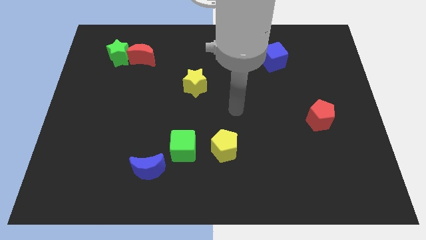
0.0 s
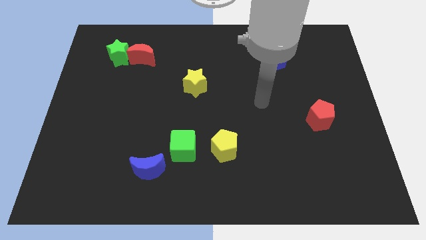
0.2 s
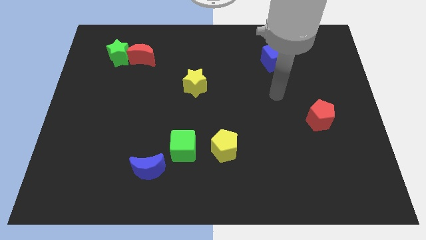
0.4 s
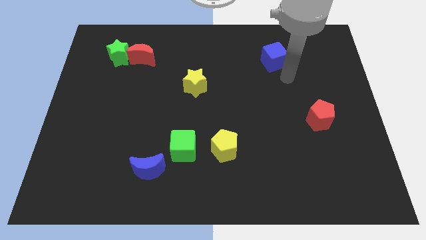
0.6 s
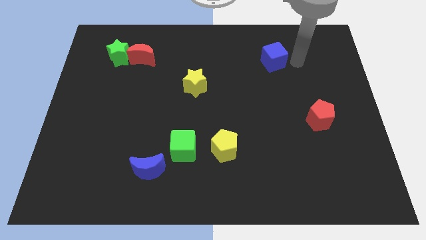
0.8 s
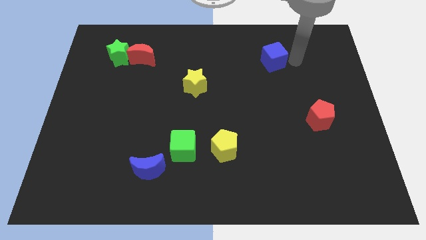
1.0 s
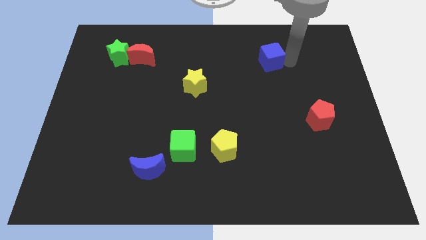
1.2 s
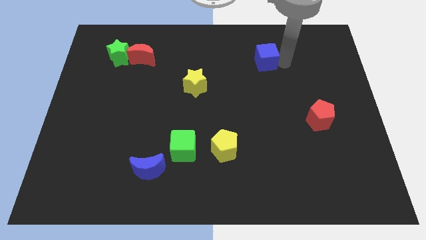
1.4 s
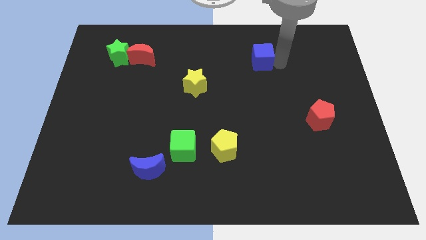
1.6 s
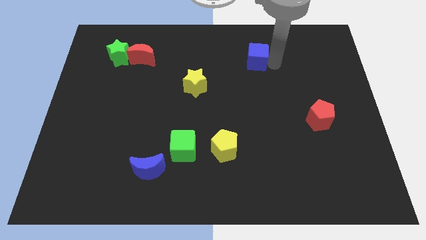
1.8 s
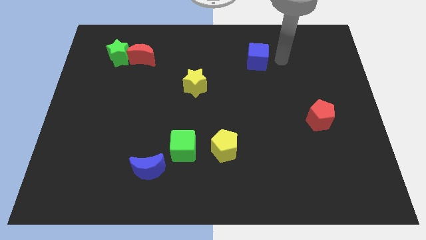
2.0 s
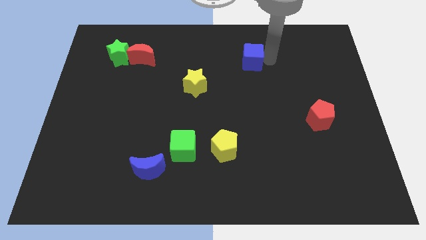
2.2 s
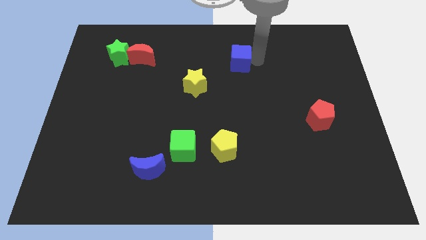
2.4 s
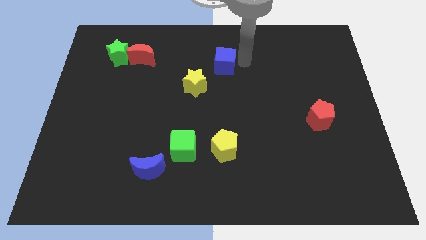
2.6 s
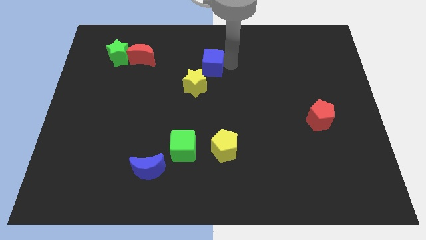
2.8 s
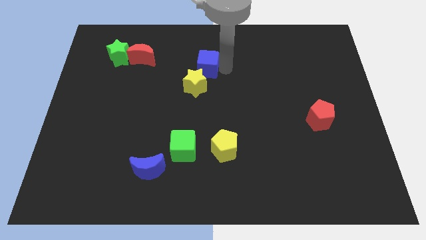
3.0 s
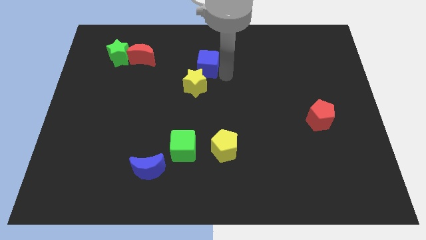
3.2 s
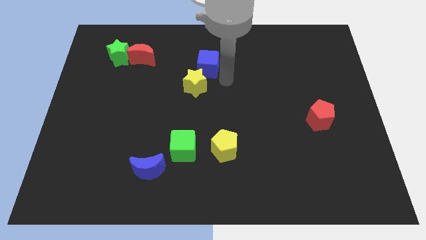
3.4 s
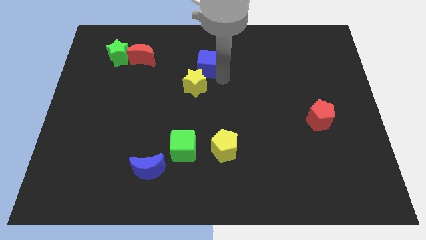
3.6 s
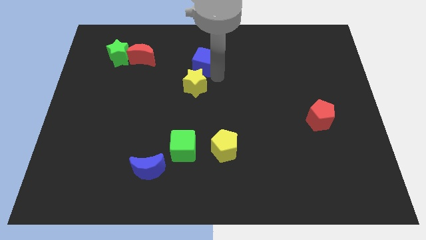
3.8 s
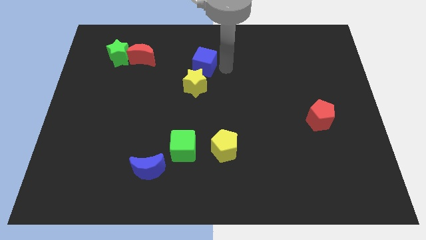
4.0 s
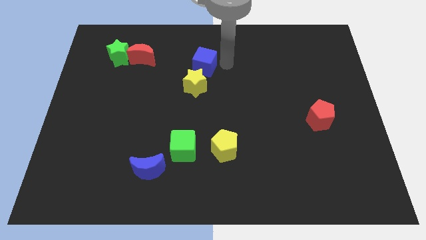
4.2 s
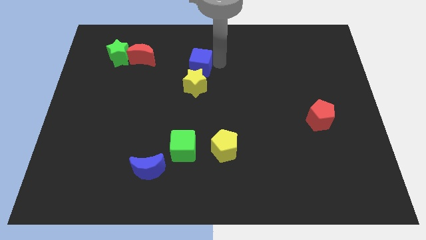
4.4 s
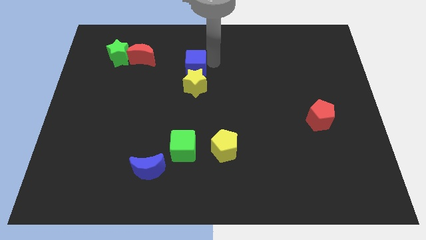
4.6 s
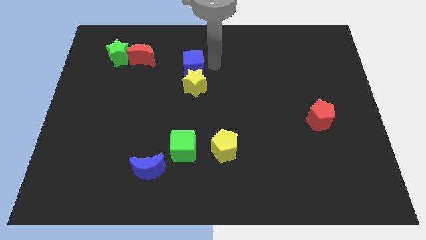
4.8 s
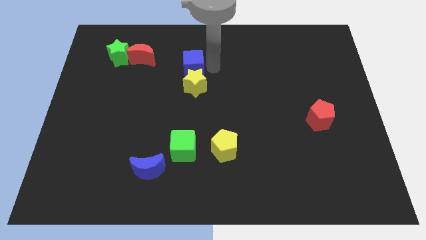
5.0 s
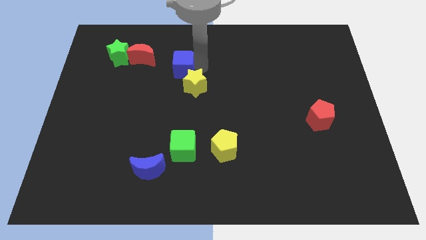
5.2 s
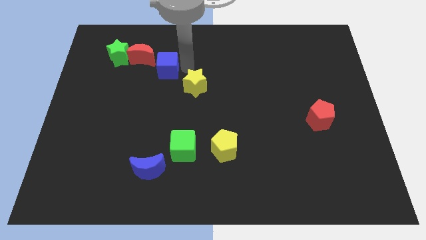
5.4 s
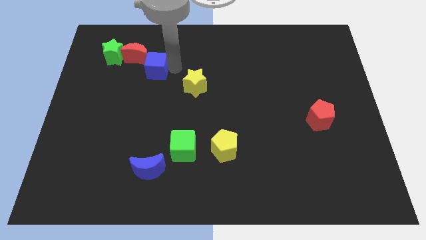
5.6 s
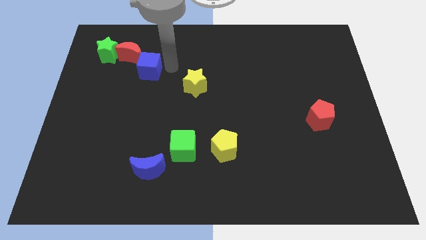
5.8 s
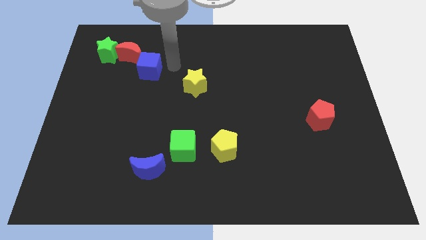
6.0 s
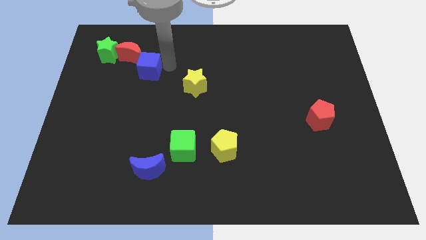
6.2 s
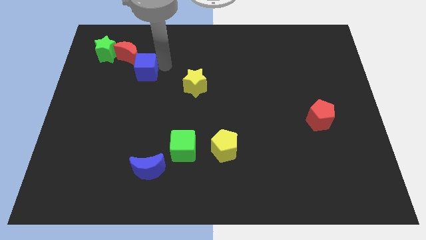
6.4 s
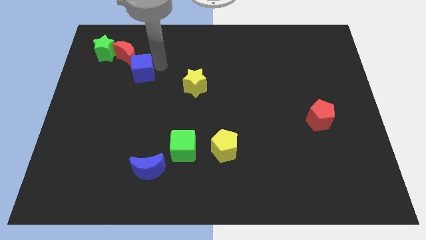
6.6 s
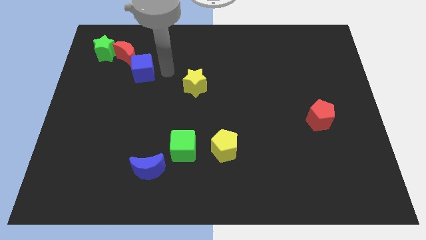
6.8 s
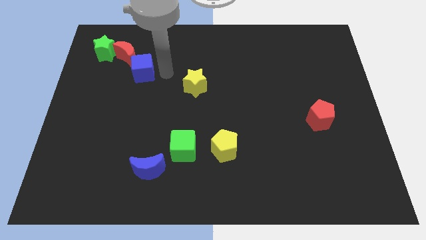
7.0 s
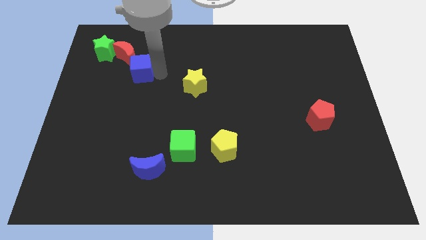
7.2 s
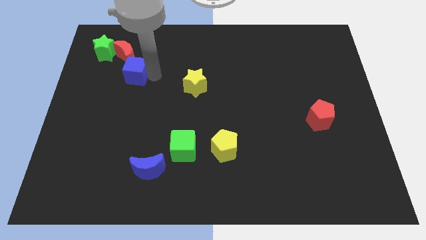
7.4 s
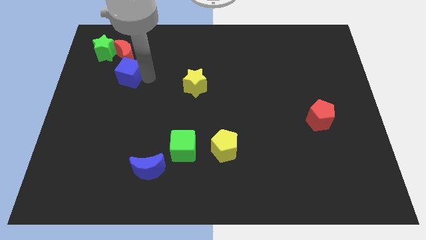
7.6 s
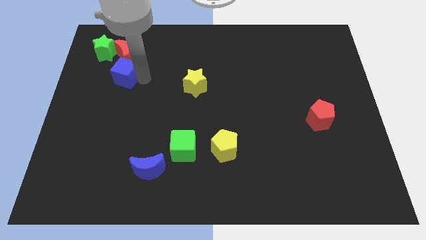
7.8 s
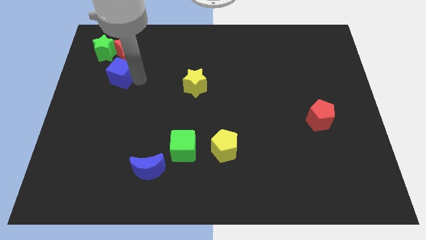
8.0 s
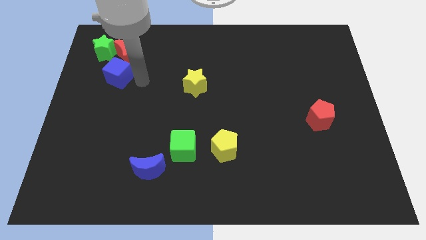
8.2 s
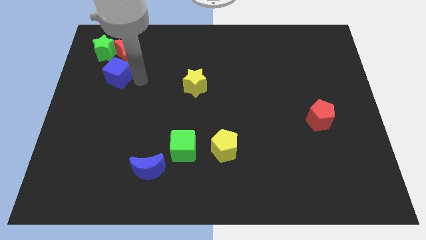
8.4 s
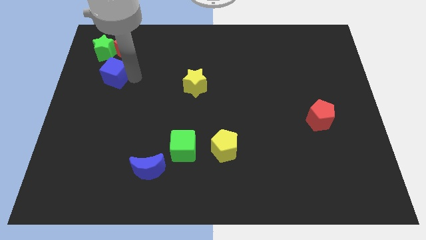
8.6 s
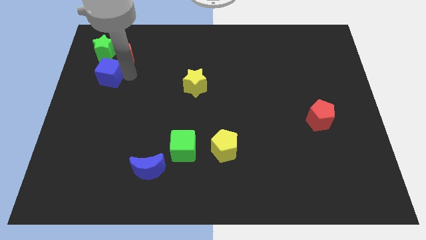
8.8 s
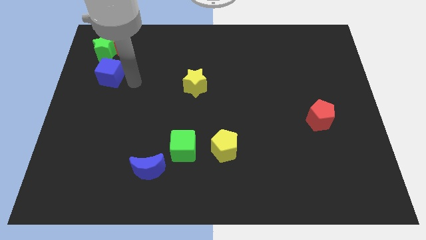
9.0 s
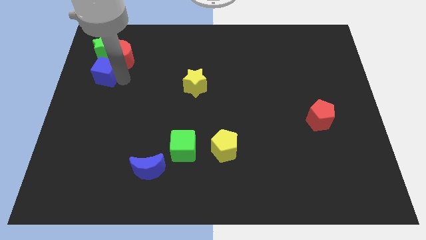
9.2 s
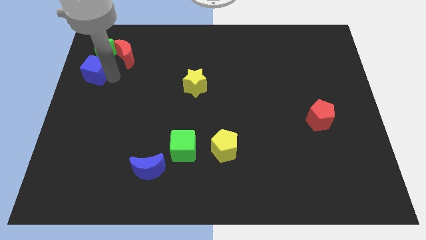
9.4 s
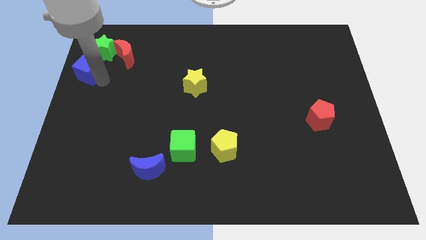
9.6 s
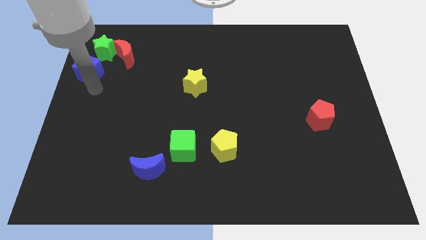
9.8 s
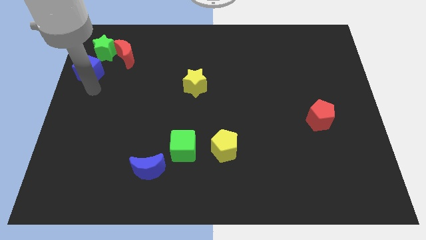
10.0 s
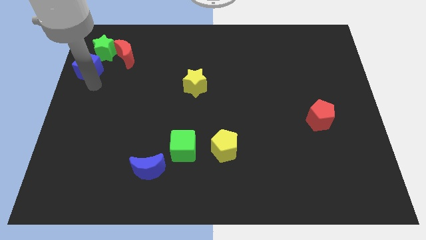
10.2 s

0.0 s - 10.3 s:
push the blue cube left of the red moon

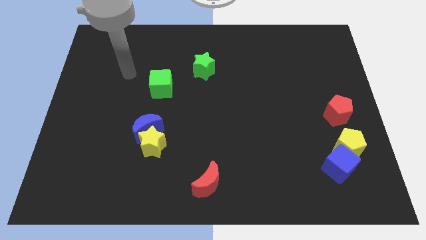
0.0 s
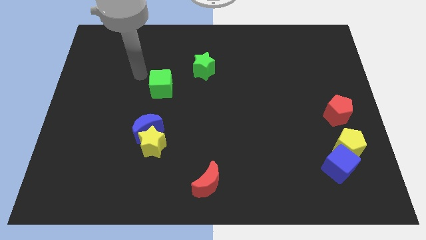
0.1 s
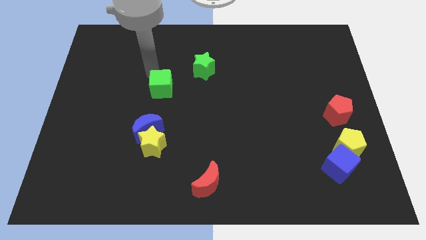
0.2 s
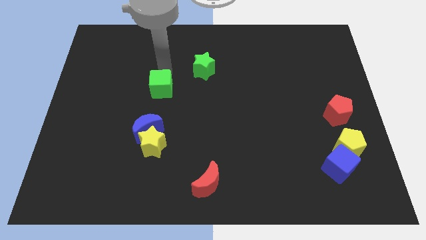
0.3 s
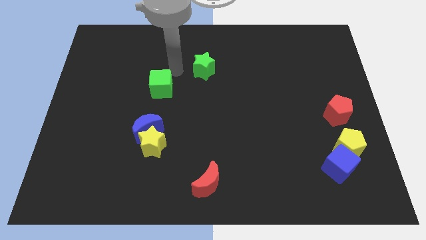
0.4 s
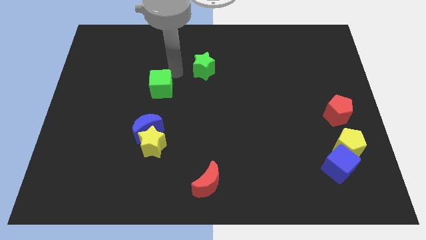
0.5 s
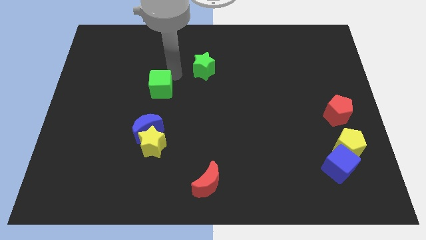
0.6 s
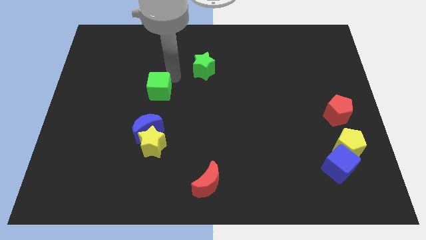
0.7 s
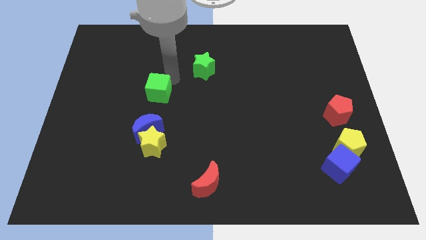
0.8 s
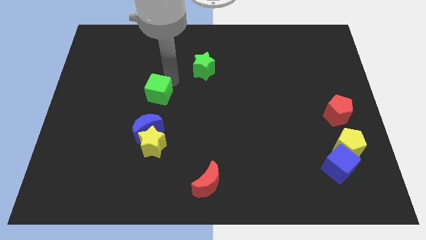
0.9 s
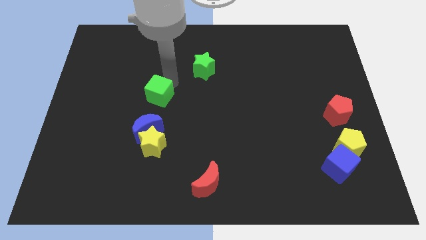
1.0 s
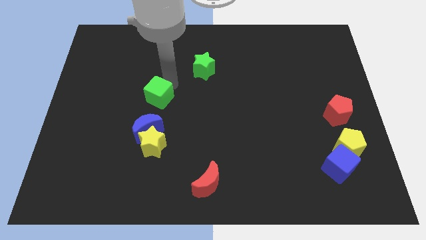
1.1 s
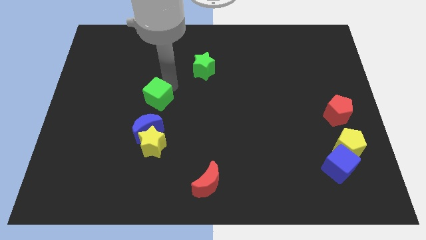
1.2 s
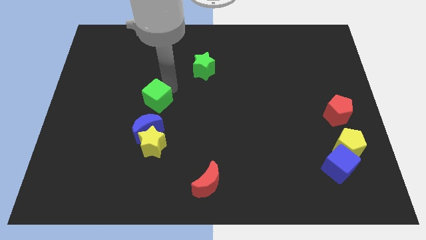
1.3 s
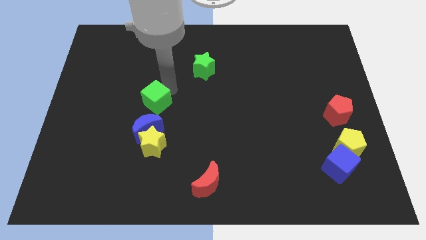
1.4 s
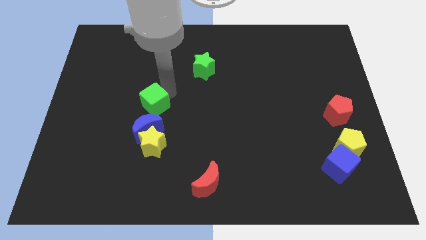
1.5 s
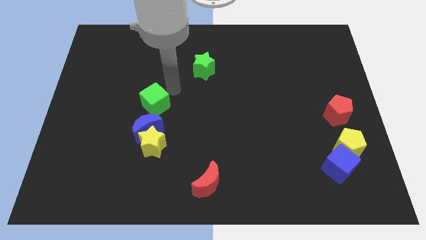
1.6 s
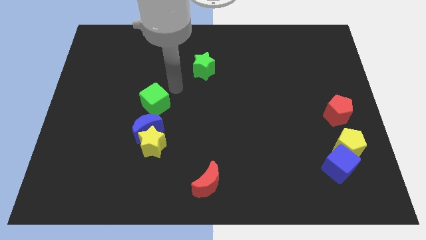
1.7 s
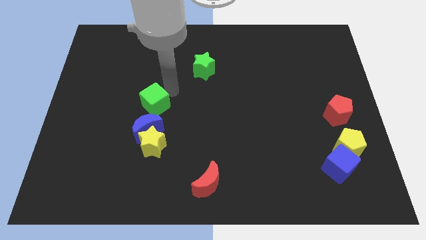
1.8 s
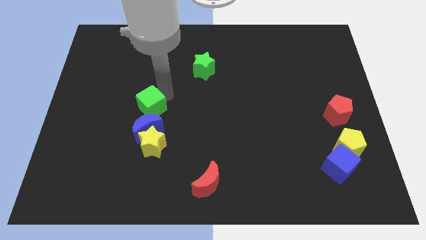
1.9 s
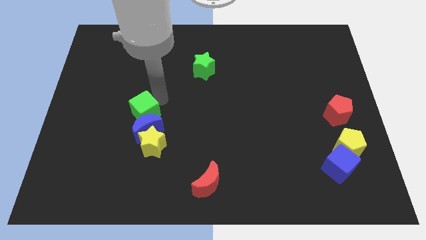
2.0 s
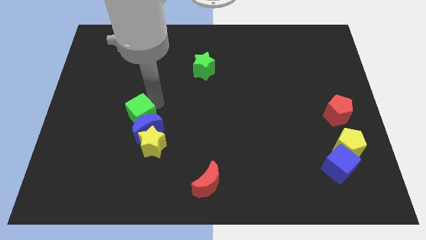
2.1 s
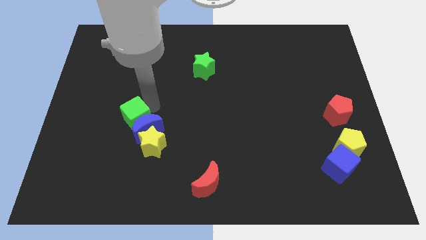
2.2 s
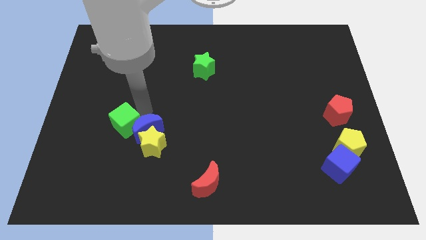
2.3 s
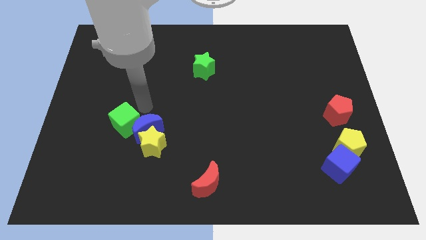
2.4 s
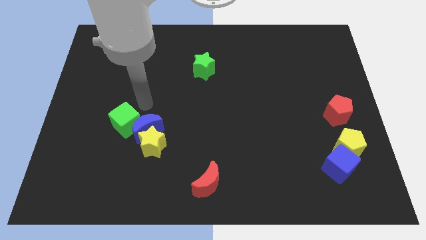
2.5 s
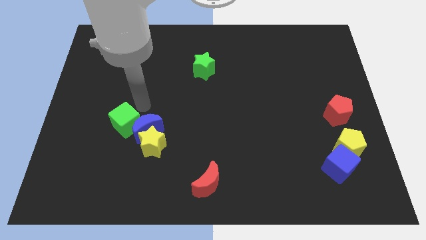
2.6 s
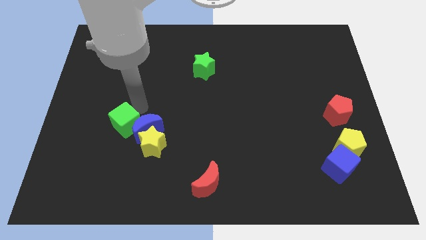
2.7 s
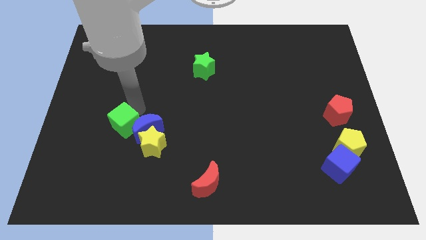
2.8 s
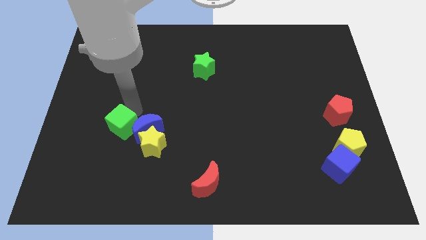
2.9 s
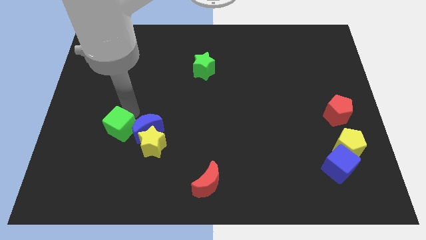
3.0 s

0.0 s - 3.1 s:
push the green cube to the left side of the yellow star

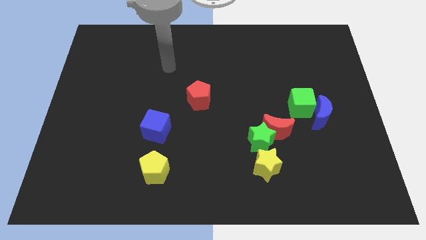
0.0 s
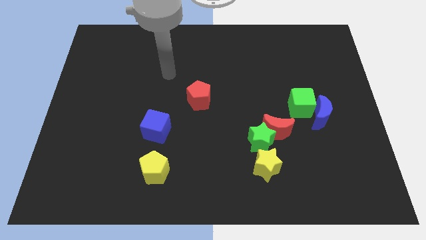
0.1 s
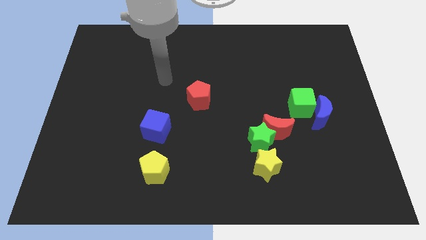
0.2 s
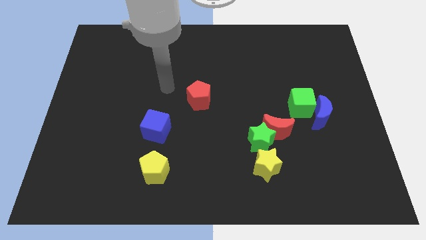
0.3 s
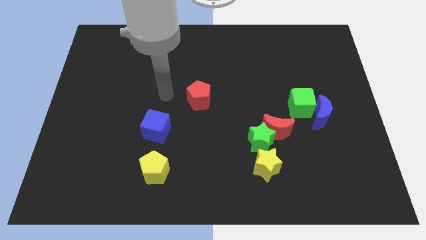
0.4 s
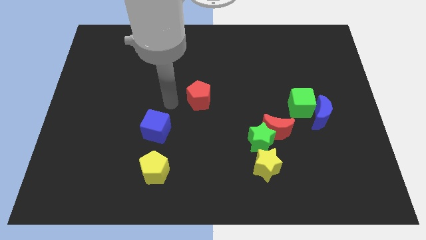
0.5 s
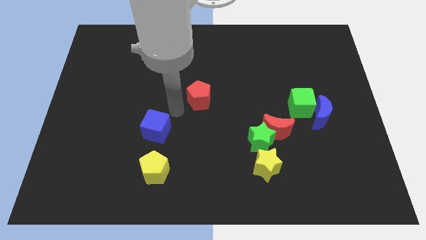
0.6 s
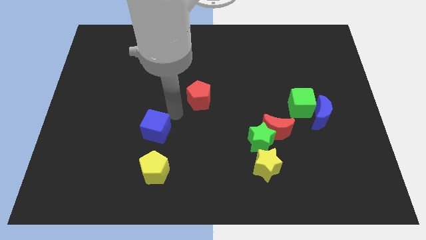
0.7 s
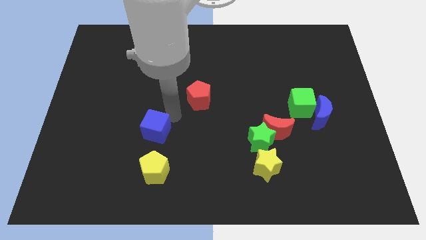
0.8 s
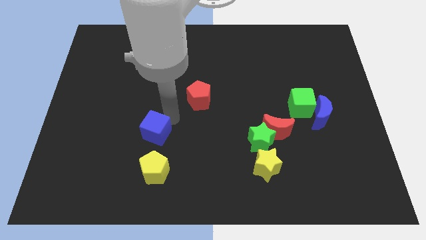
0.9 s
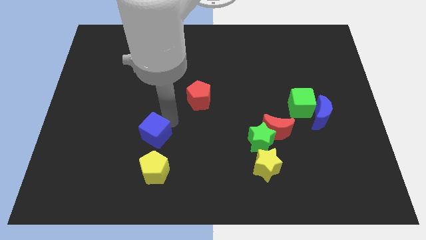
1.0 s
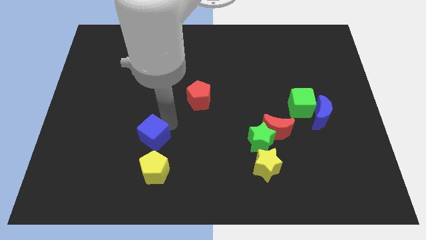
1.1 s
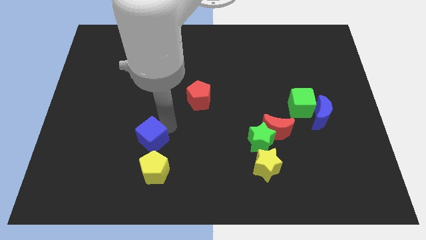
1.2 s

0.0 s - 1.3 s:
move the blue cube to the top left of the yellow pentagon
